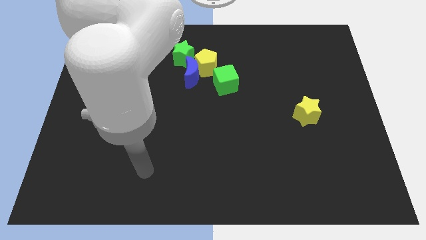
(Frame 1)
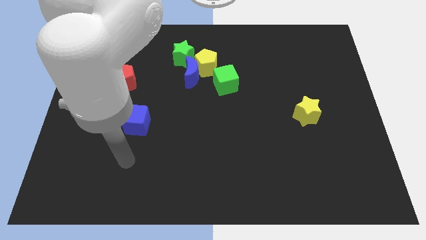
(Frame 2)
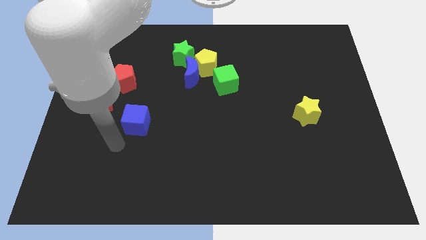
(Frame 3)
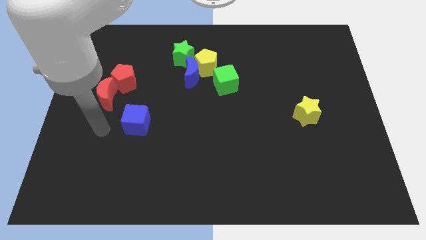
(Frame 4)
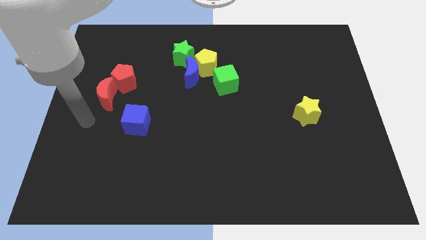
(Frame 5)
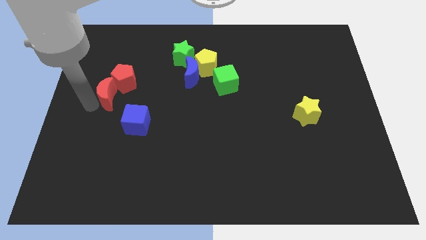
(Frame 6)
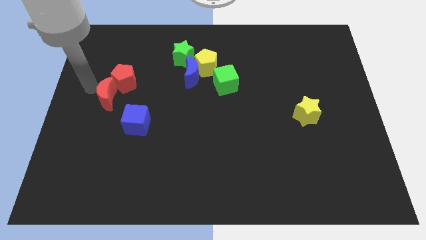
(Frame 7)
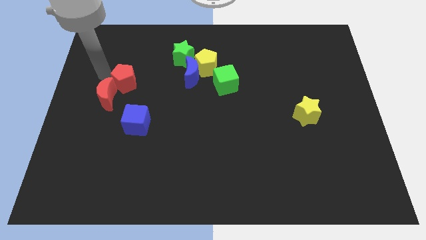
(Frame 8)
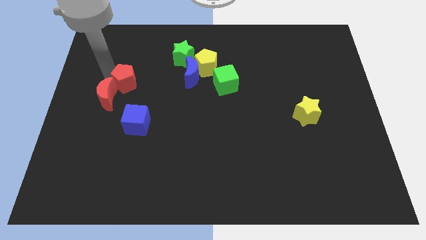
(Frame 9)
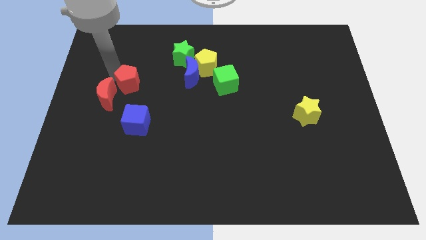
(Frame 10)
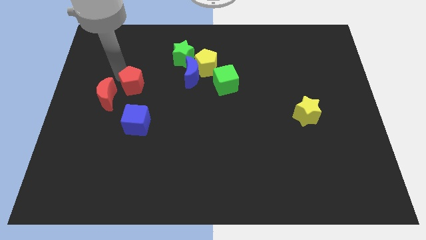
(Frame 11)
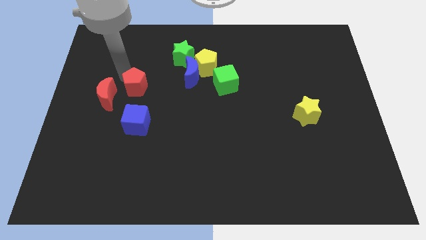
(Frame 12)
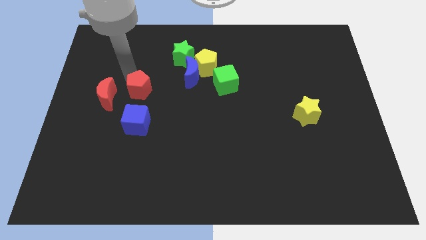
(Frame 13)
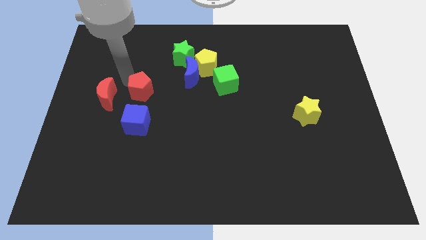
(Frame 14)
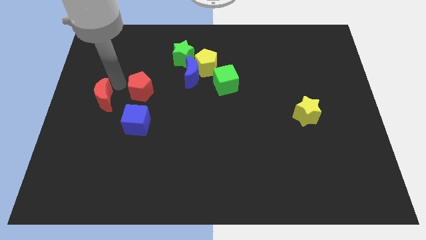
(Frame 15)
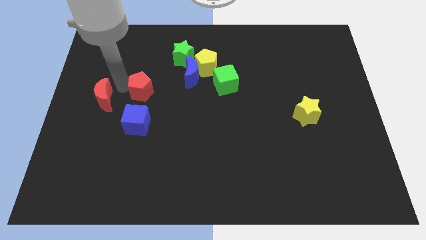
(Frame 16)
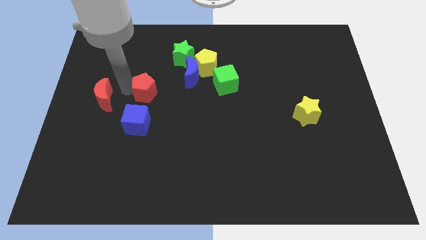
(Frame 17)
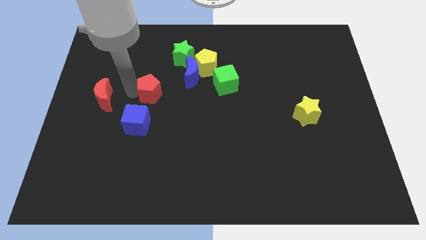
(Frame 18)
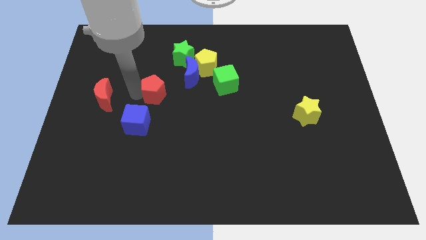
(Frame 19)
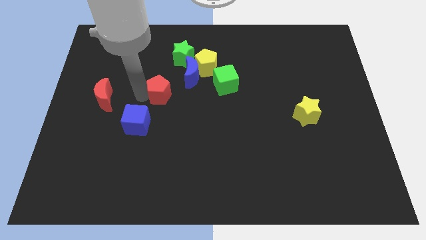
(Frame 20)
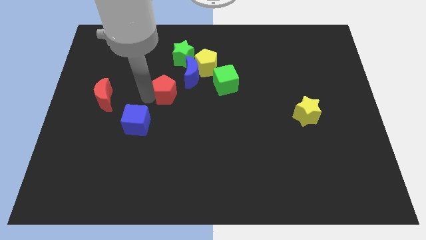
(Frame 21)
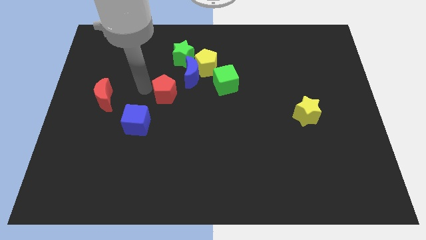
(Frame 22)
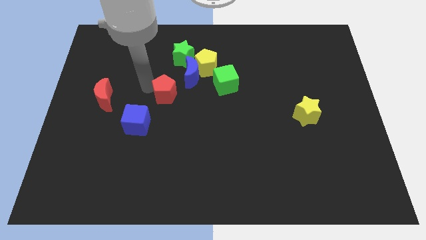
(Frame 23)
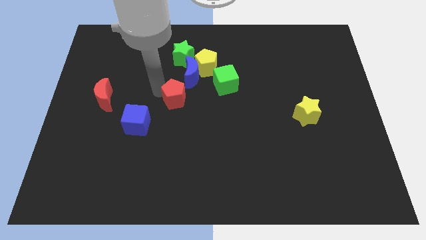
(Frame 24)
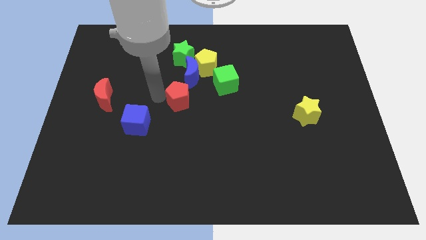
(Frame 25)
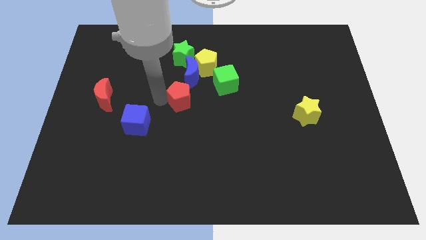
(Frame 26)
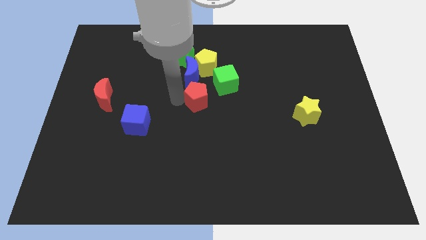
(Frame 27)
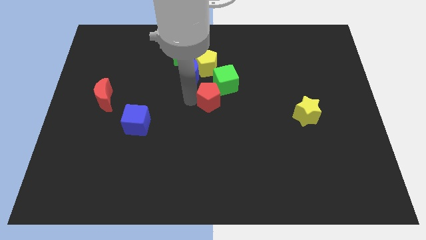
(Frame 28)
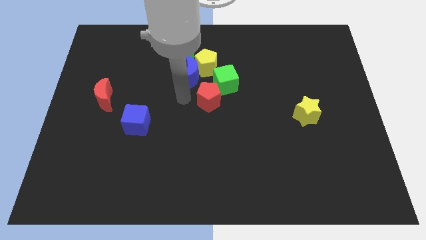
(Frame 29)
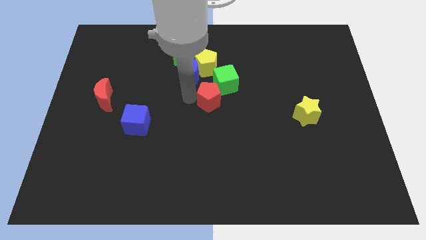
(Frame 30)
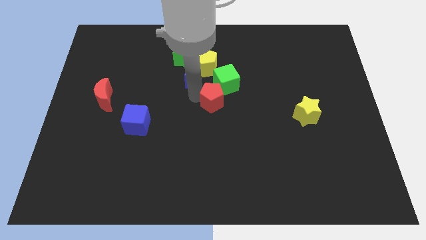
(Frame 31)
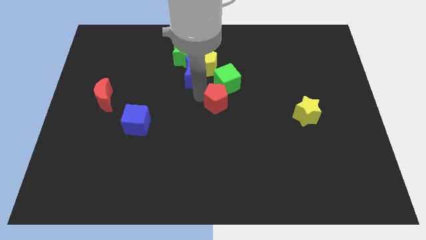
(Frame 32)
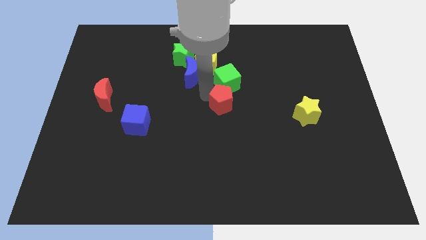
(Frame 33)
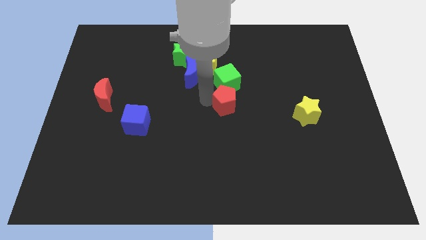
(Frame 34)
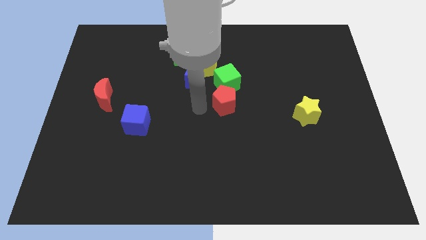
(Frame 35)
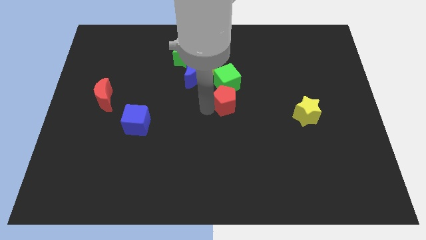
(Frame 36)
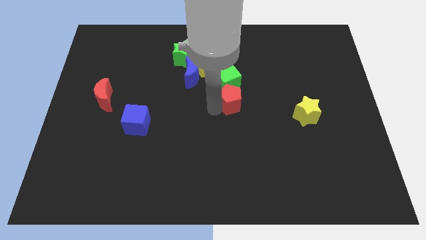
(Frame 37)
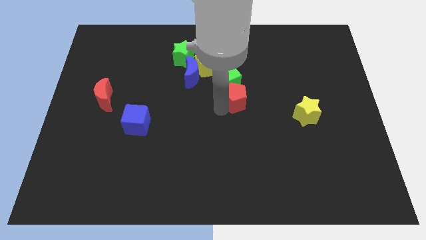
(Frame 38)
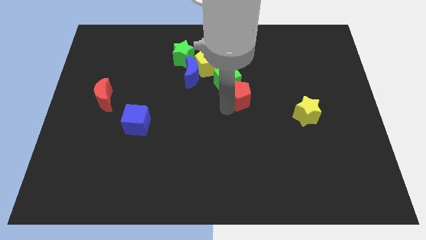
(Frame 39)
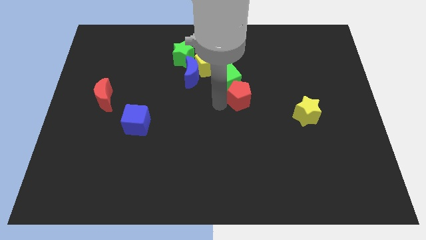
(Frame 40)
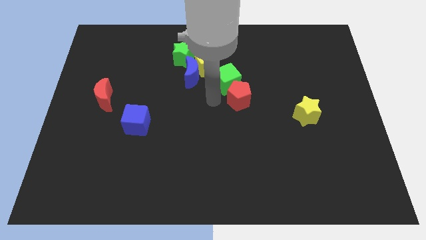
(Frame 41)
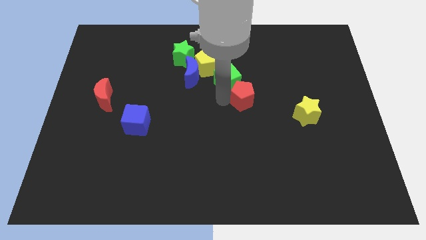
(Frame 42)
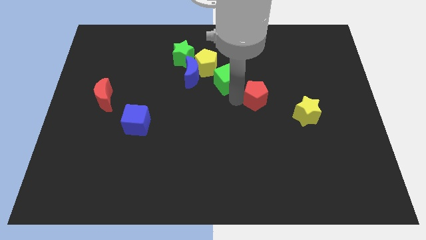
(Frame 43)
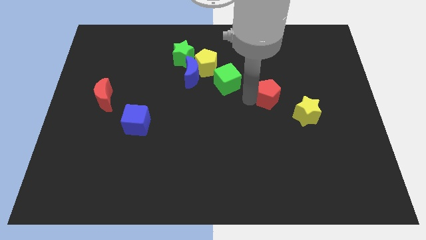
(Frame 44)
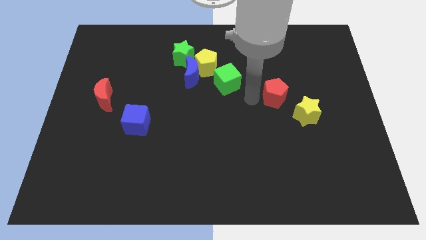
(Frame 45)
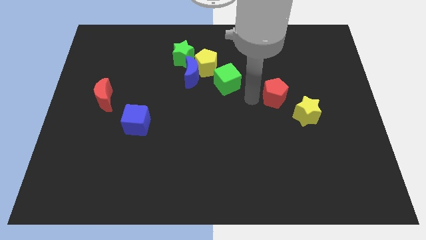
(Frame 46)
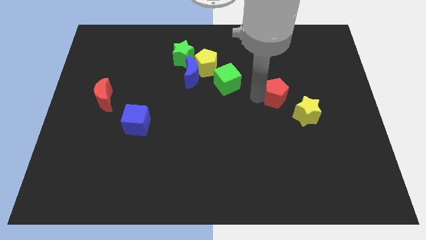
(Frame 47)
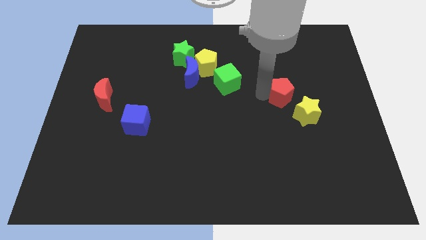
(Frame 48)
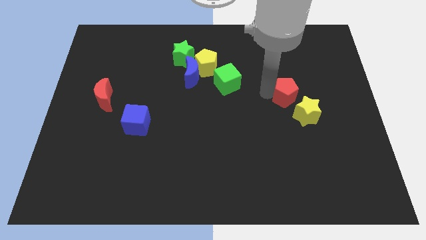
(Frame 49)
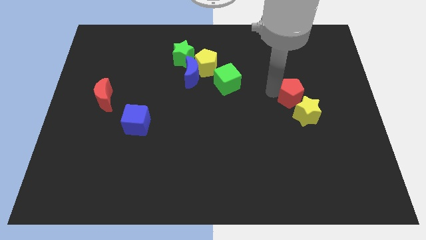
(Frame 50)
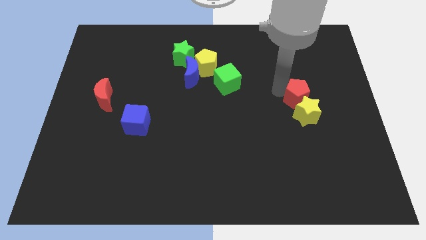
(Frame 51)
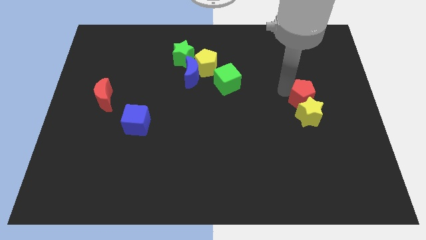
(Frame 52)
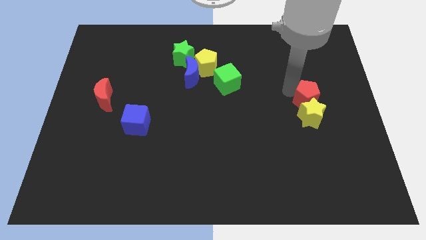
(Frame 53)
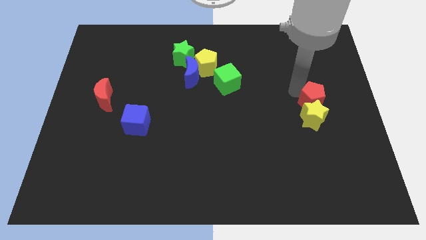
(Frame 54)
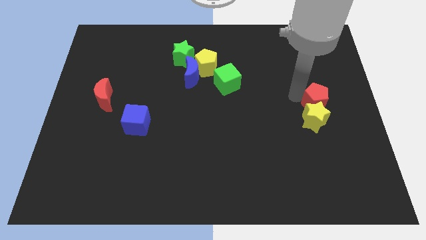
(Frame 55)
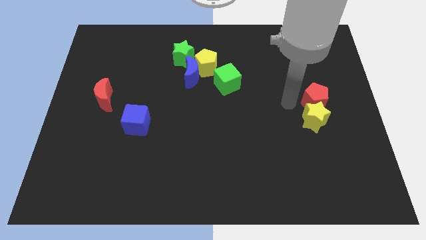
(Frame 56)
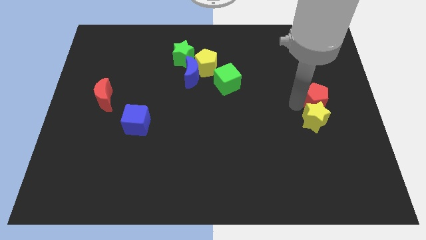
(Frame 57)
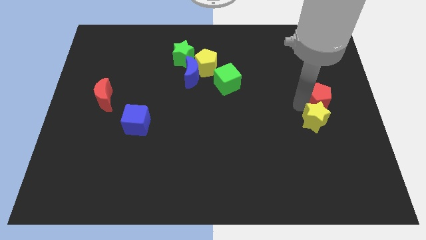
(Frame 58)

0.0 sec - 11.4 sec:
move the red pentagon to the right side
